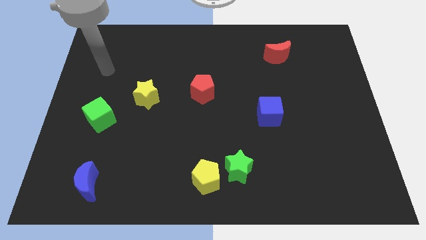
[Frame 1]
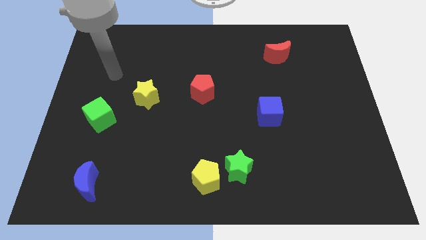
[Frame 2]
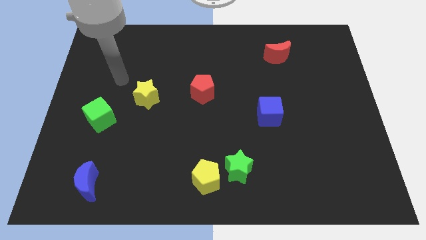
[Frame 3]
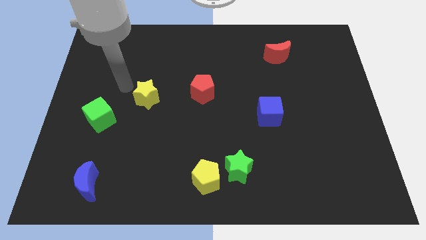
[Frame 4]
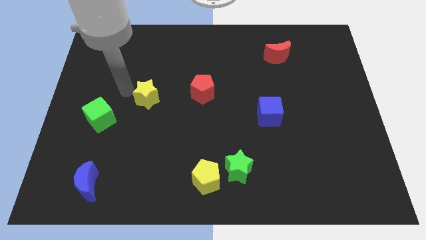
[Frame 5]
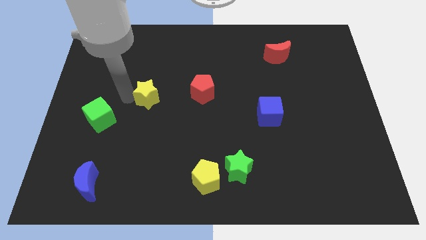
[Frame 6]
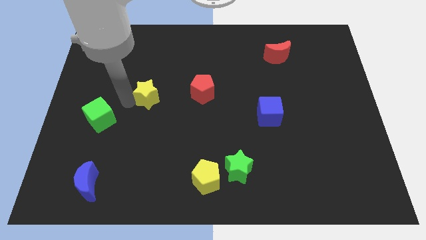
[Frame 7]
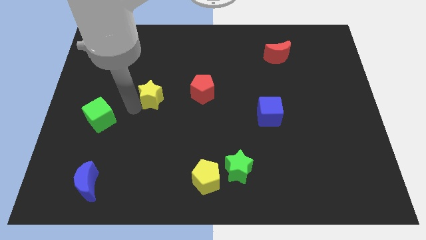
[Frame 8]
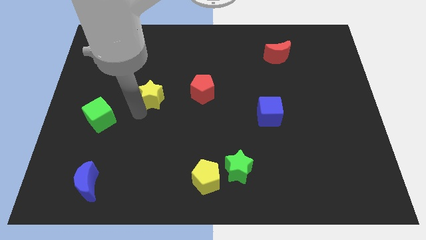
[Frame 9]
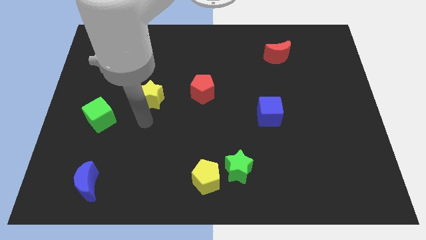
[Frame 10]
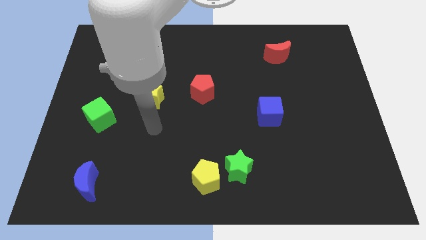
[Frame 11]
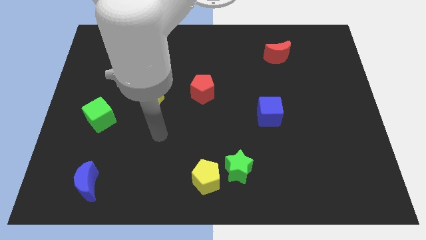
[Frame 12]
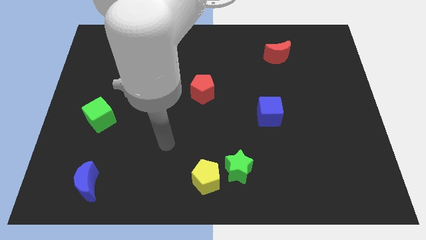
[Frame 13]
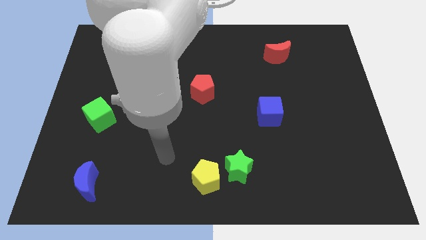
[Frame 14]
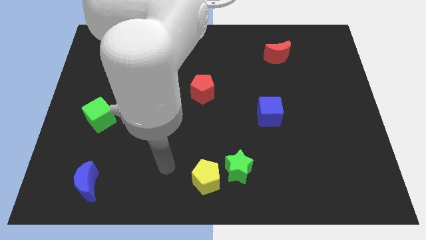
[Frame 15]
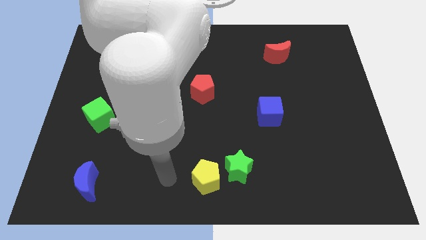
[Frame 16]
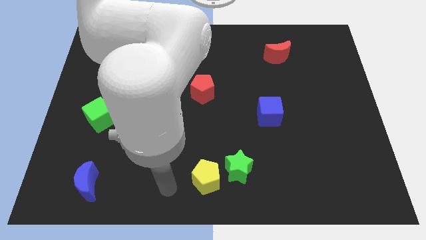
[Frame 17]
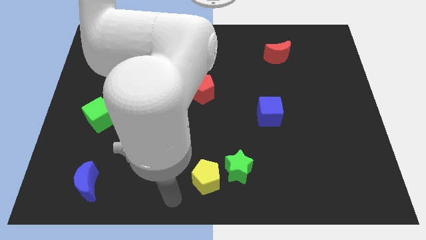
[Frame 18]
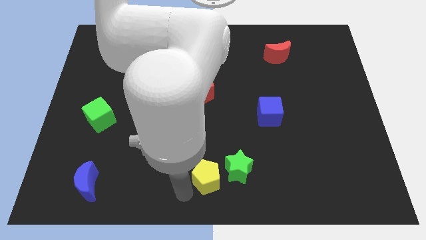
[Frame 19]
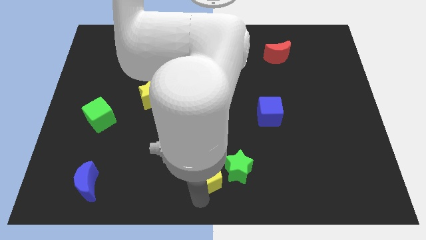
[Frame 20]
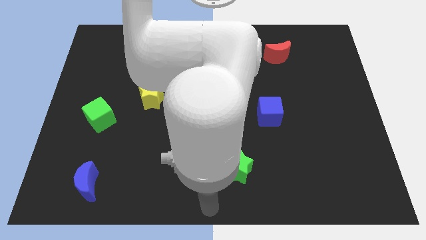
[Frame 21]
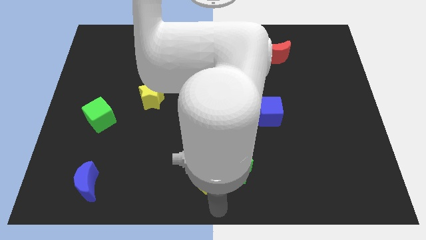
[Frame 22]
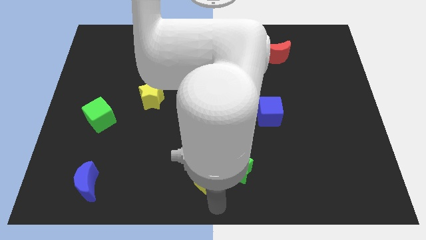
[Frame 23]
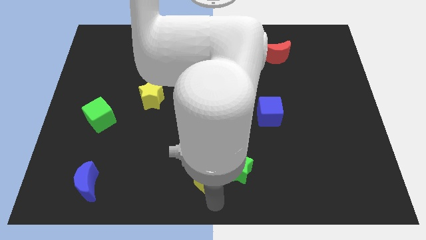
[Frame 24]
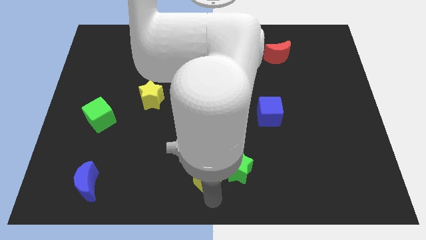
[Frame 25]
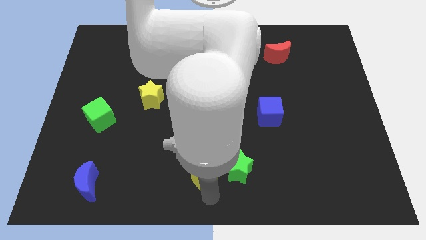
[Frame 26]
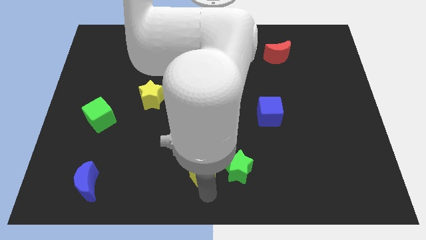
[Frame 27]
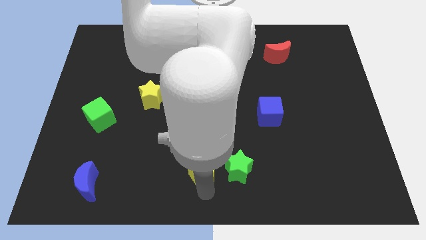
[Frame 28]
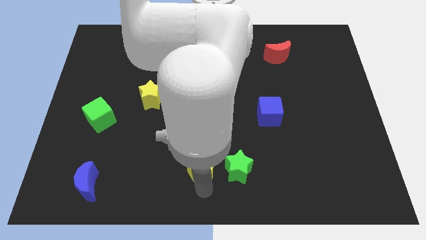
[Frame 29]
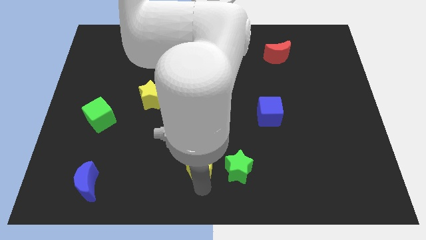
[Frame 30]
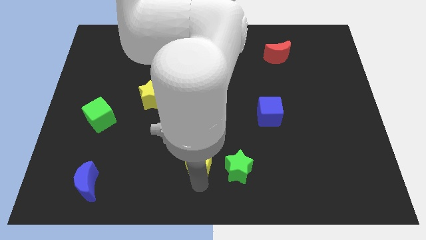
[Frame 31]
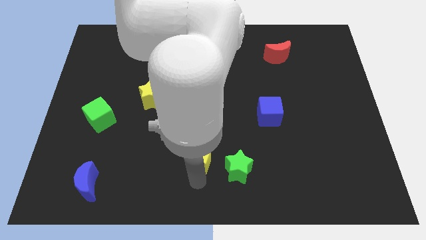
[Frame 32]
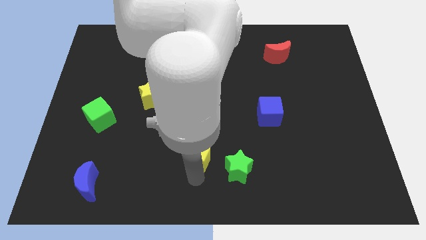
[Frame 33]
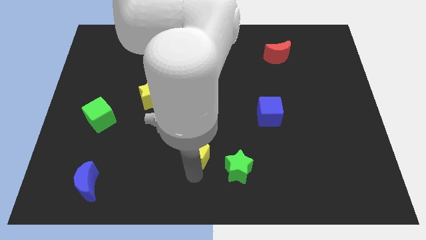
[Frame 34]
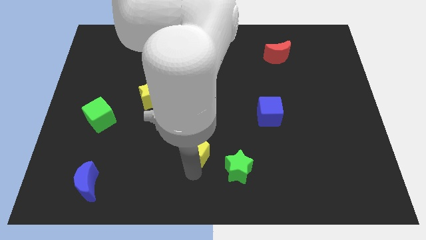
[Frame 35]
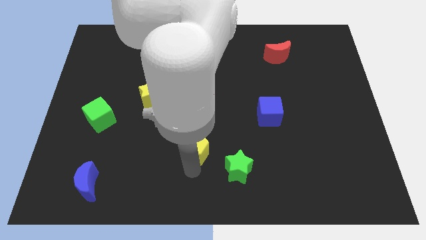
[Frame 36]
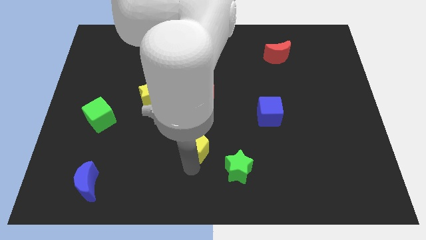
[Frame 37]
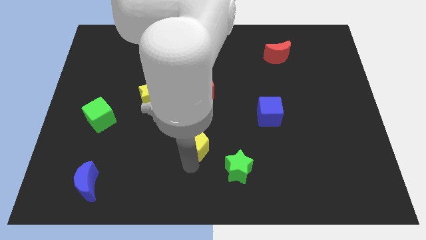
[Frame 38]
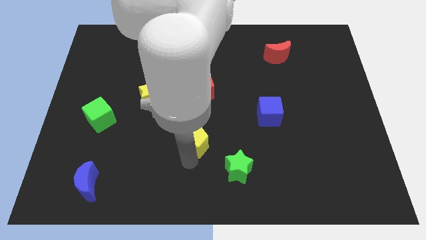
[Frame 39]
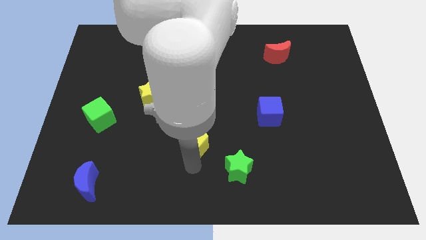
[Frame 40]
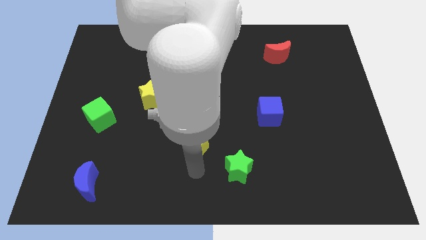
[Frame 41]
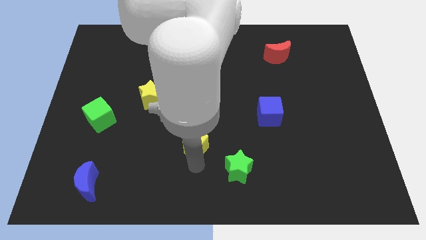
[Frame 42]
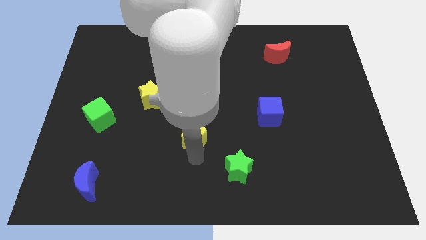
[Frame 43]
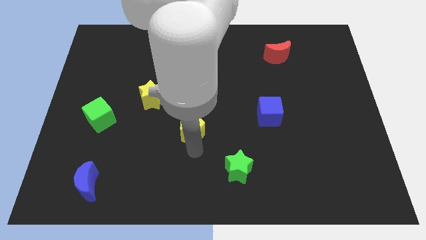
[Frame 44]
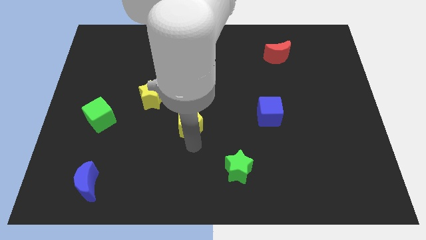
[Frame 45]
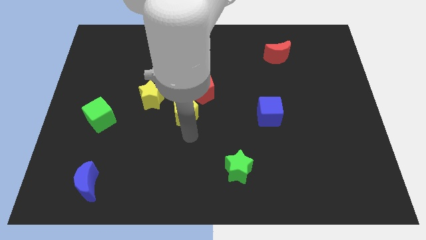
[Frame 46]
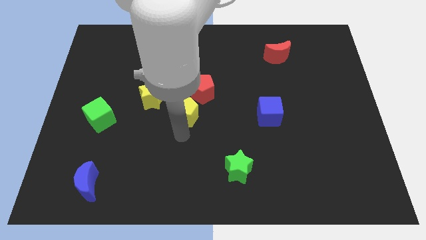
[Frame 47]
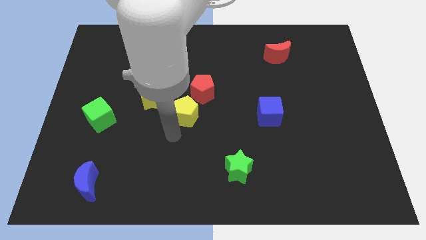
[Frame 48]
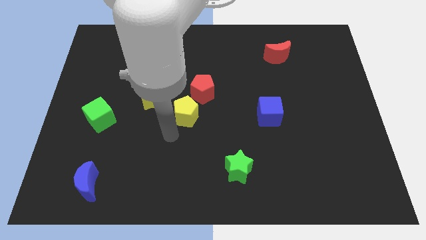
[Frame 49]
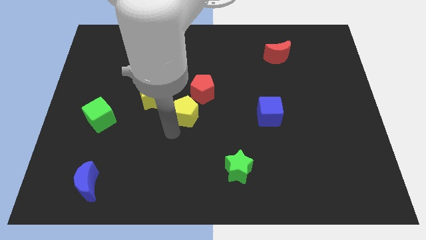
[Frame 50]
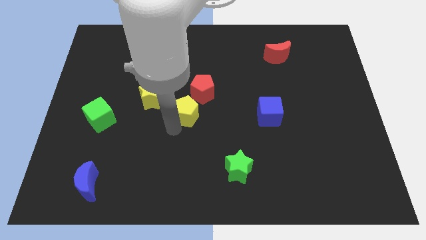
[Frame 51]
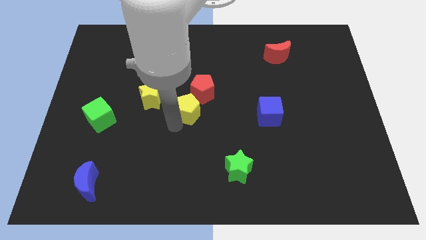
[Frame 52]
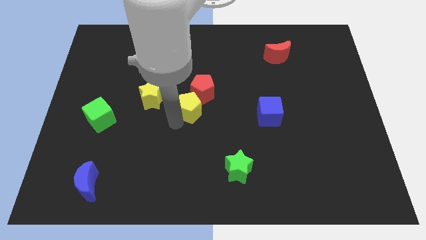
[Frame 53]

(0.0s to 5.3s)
push the yellow pentagon close to the red pentagon

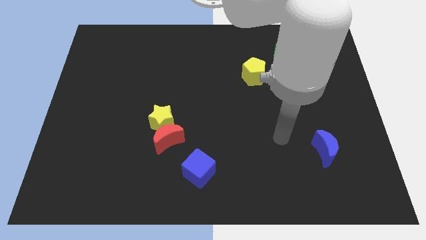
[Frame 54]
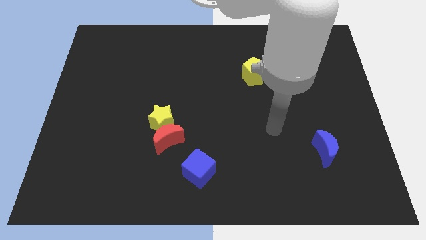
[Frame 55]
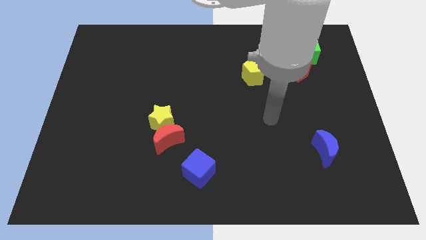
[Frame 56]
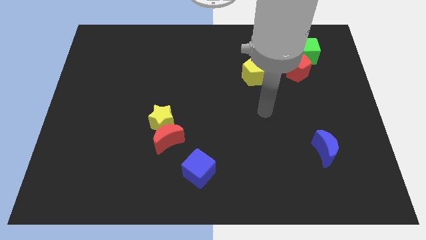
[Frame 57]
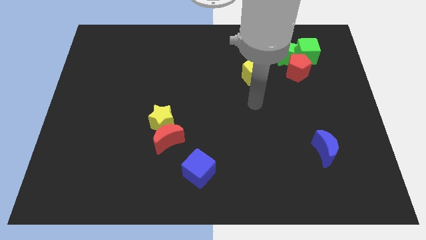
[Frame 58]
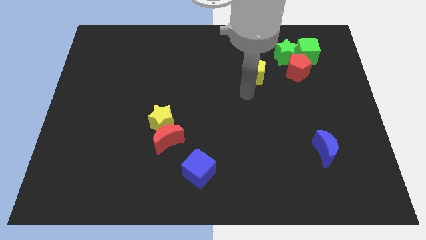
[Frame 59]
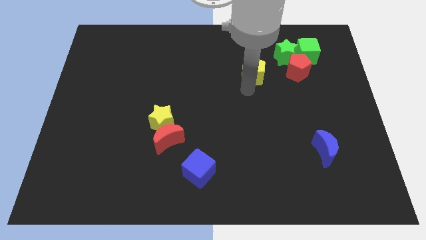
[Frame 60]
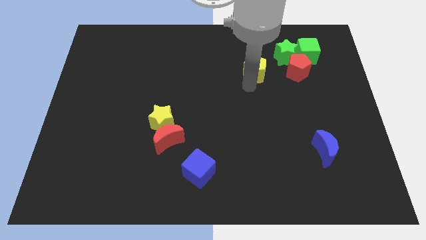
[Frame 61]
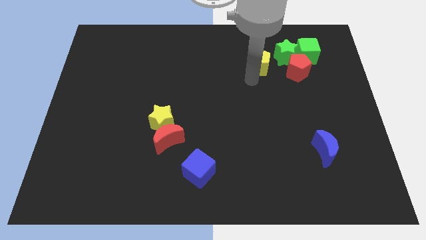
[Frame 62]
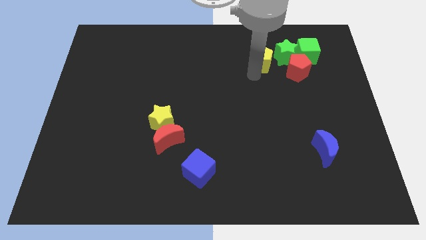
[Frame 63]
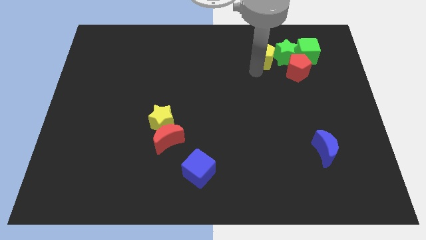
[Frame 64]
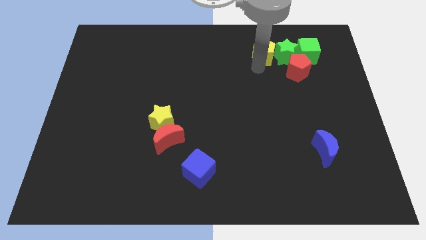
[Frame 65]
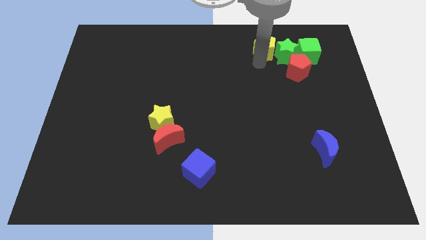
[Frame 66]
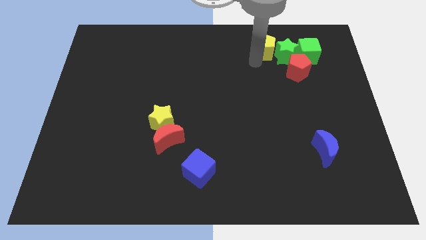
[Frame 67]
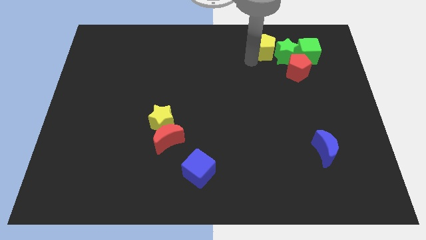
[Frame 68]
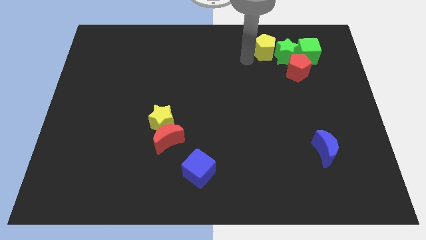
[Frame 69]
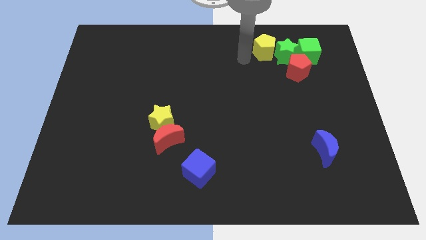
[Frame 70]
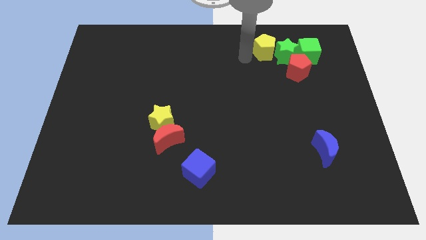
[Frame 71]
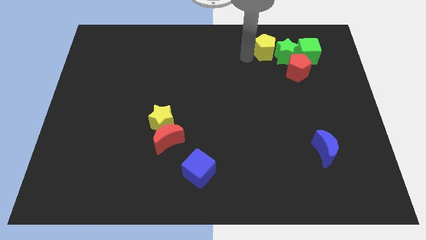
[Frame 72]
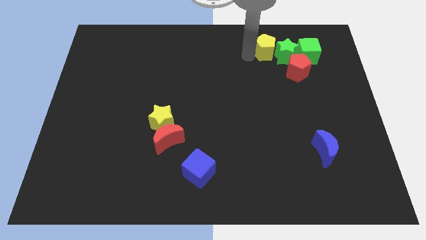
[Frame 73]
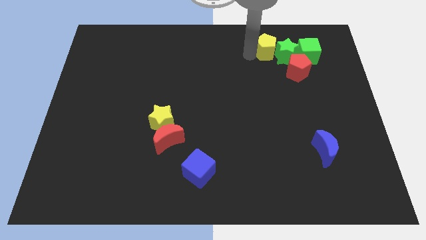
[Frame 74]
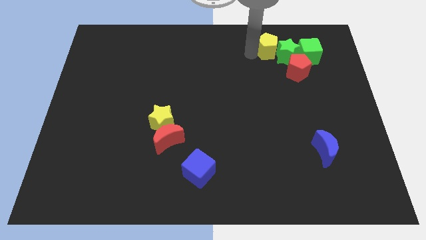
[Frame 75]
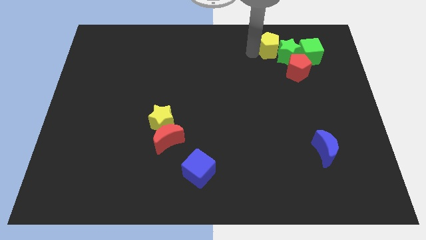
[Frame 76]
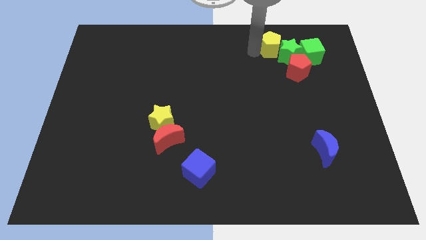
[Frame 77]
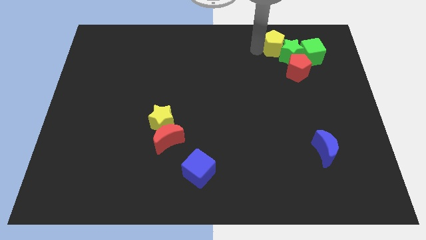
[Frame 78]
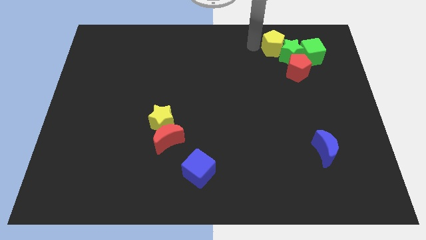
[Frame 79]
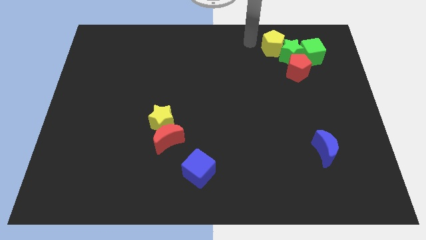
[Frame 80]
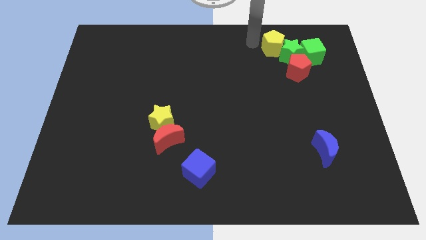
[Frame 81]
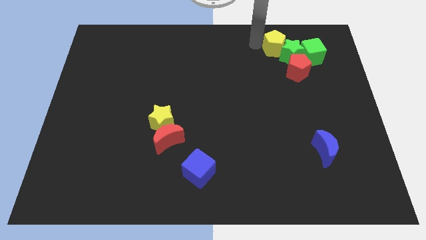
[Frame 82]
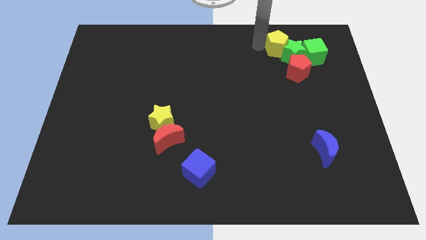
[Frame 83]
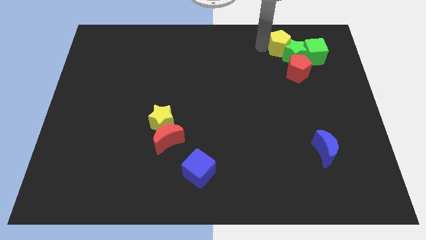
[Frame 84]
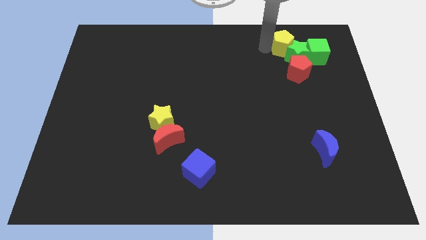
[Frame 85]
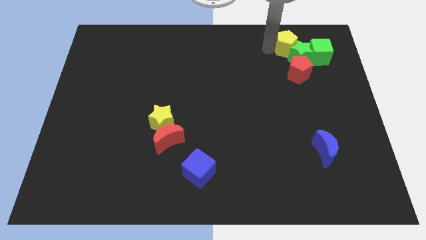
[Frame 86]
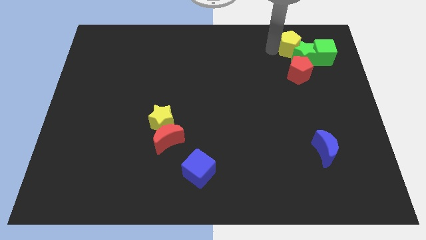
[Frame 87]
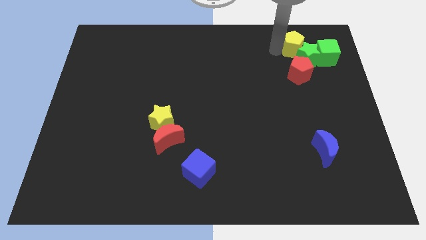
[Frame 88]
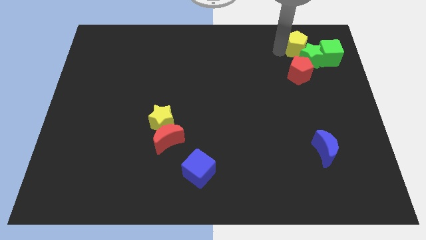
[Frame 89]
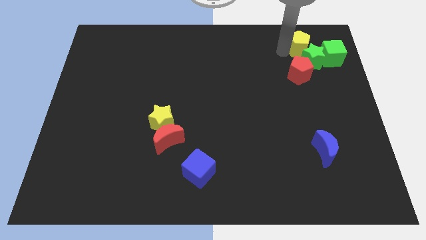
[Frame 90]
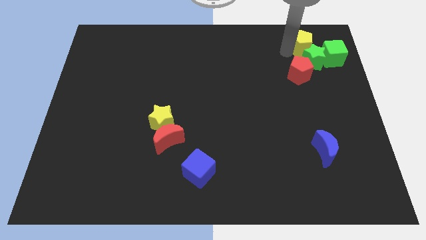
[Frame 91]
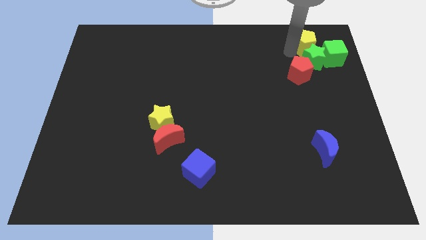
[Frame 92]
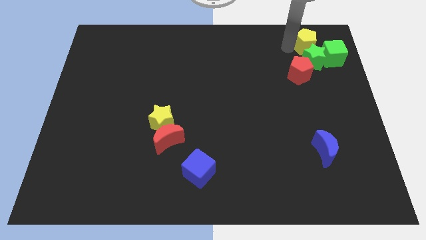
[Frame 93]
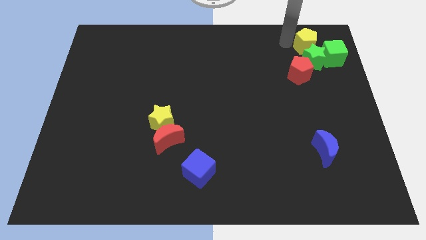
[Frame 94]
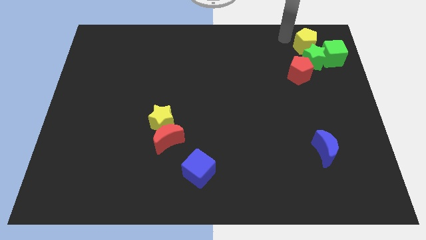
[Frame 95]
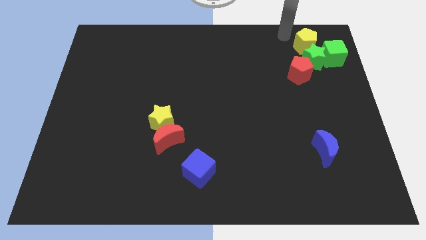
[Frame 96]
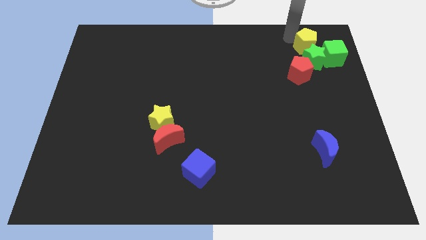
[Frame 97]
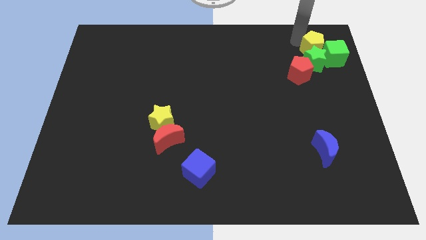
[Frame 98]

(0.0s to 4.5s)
slide the yellow pentagon next to the green cube
